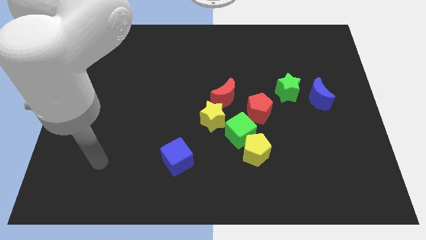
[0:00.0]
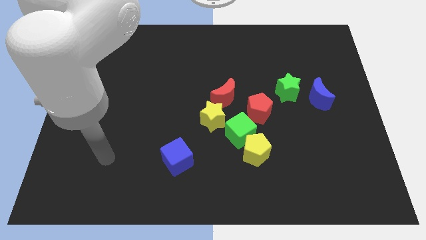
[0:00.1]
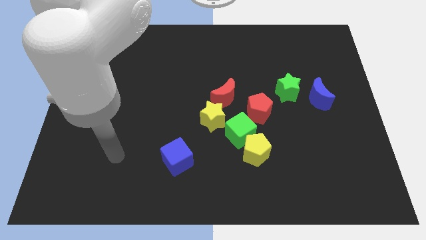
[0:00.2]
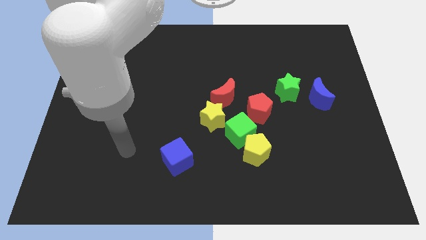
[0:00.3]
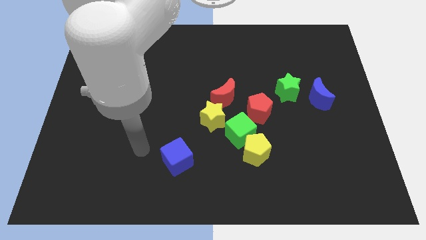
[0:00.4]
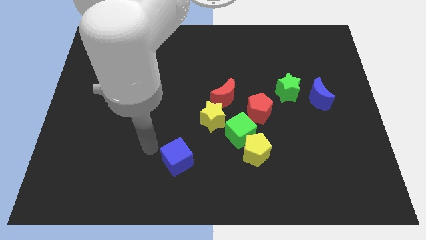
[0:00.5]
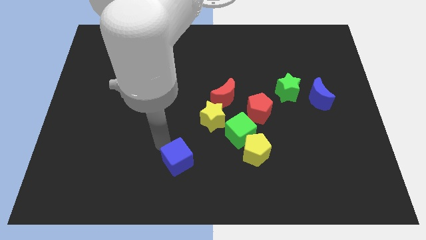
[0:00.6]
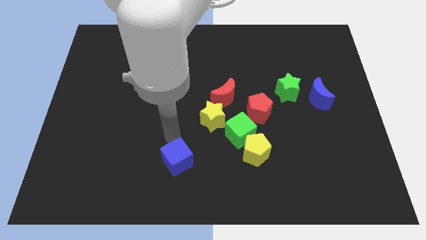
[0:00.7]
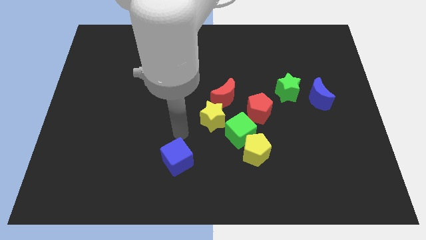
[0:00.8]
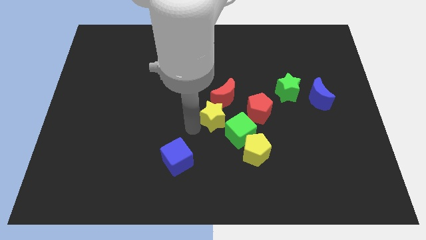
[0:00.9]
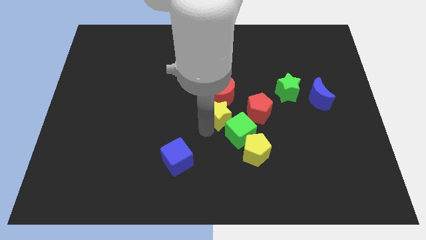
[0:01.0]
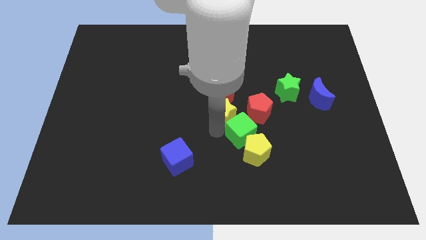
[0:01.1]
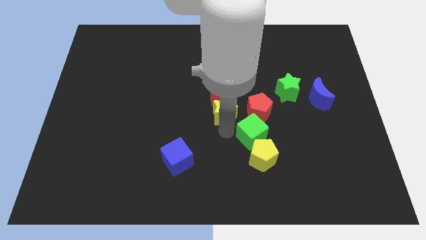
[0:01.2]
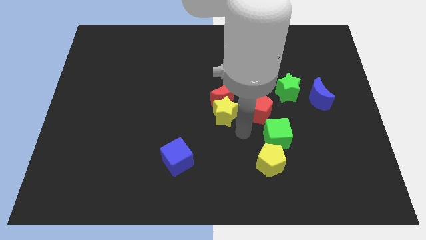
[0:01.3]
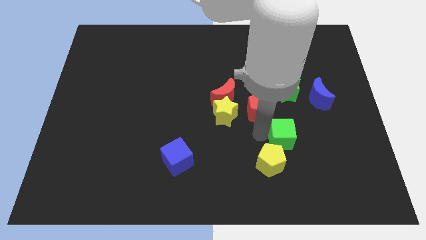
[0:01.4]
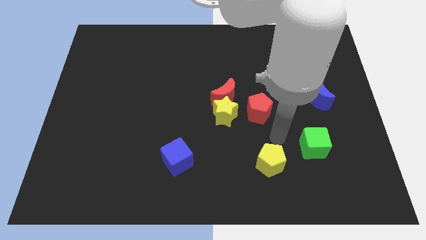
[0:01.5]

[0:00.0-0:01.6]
separate the yellow pentagon from the green cube

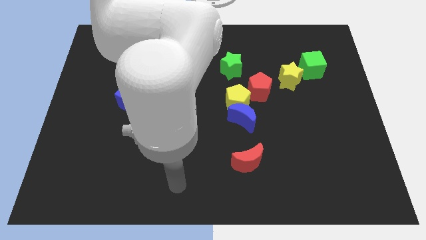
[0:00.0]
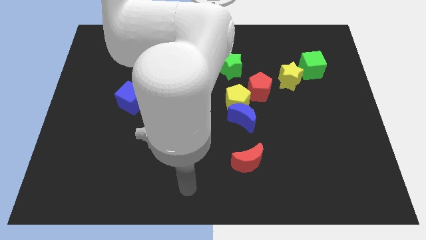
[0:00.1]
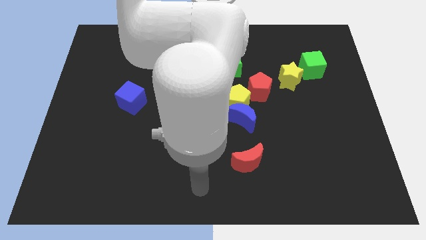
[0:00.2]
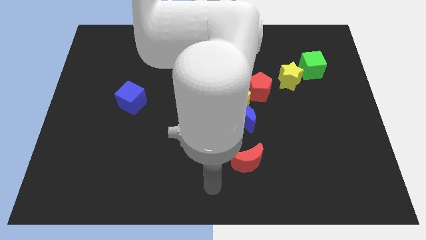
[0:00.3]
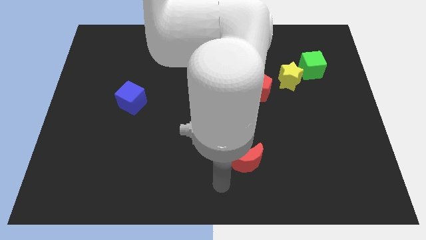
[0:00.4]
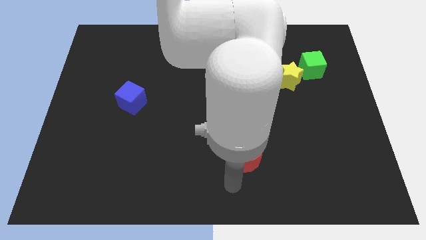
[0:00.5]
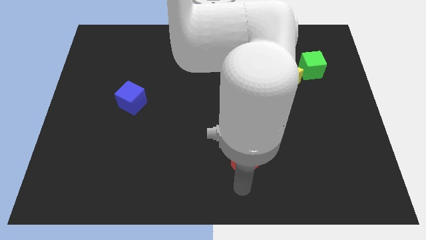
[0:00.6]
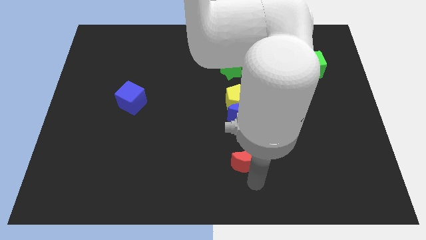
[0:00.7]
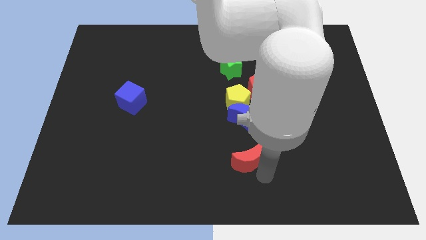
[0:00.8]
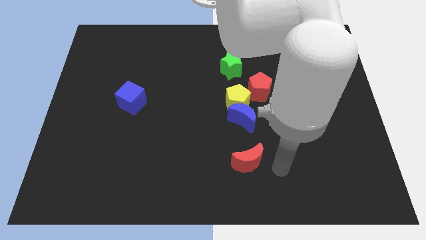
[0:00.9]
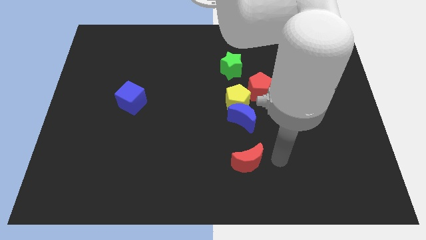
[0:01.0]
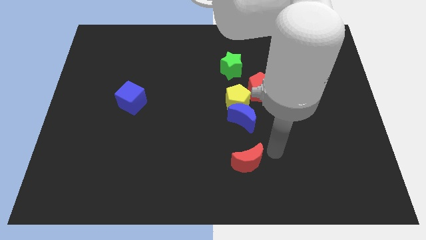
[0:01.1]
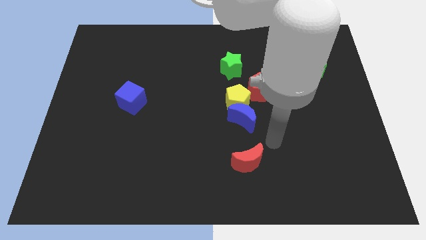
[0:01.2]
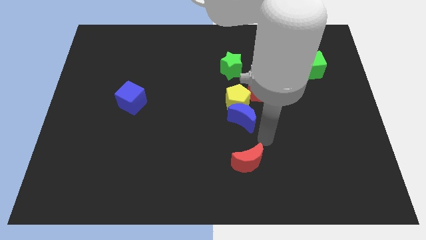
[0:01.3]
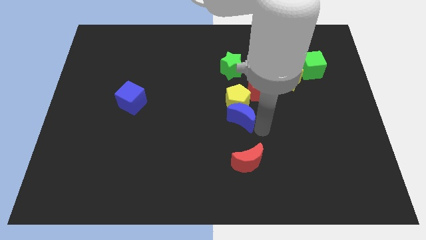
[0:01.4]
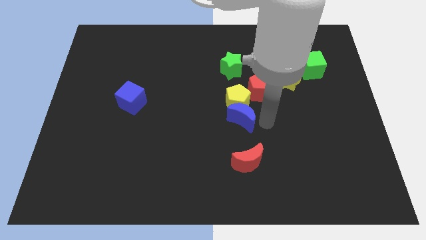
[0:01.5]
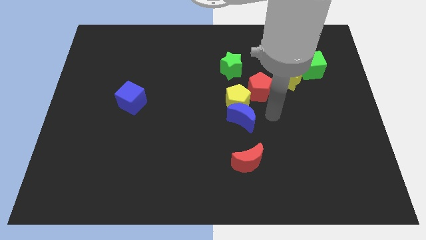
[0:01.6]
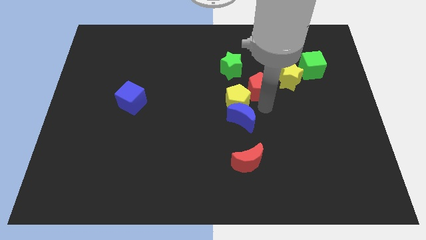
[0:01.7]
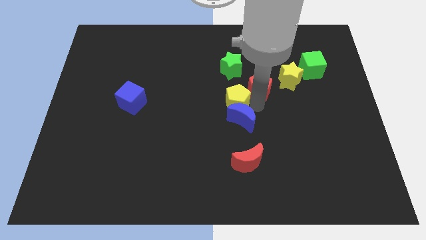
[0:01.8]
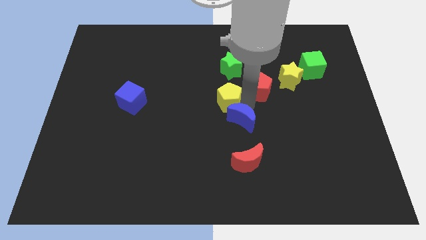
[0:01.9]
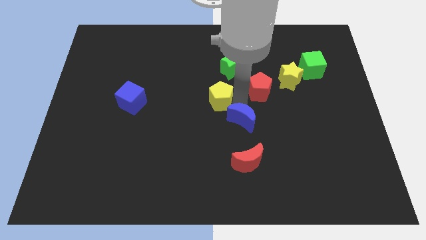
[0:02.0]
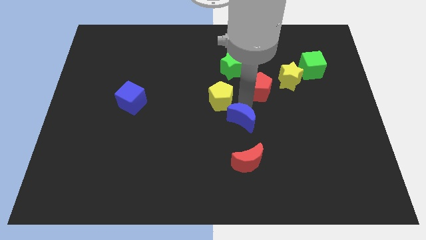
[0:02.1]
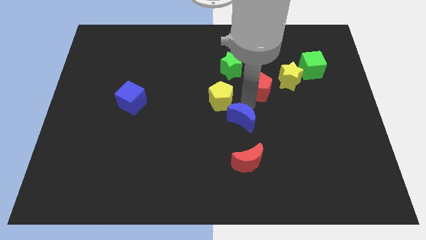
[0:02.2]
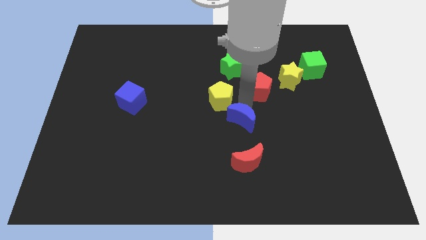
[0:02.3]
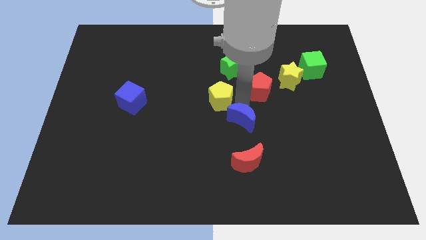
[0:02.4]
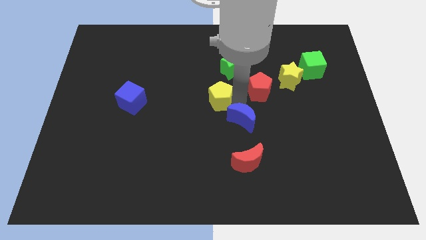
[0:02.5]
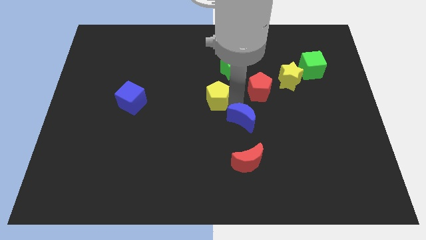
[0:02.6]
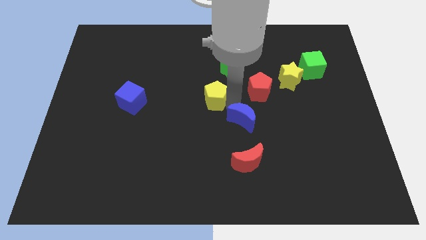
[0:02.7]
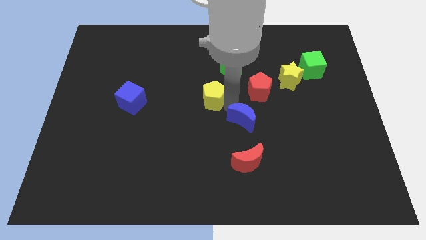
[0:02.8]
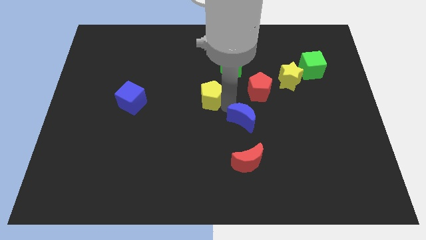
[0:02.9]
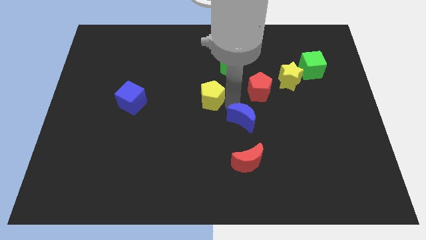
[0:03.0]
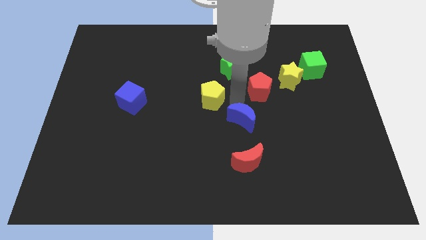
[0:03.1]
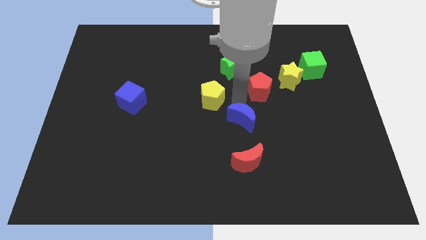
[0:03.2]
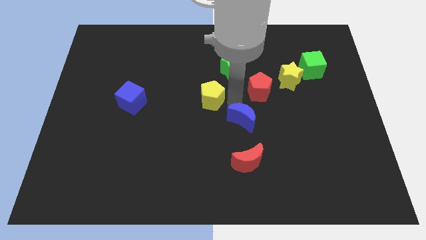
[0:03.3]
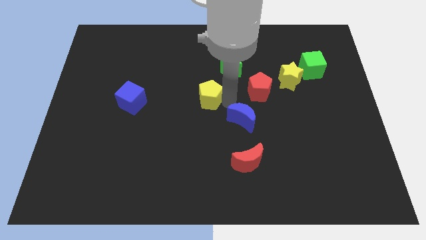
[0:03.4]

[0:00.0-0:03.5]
separate the yellow pentagon from the blue moon and red pentagon

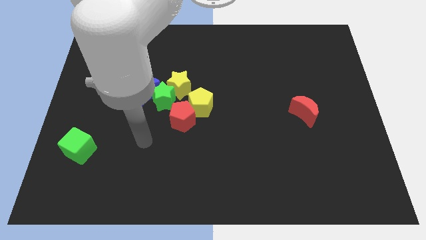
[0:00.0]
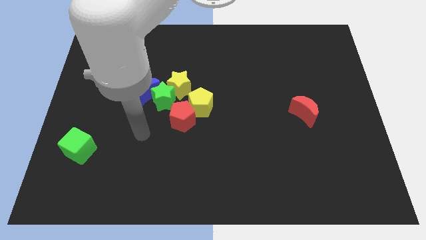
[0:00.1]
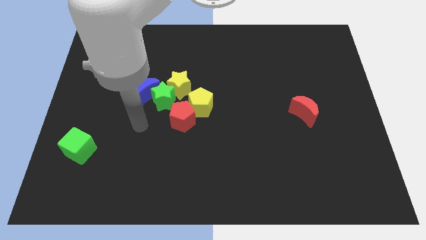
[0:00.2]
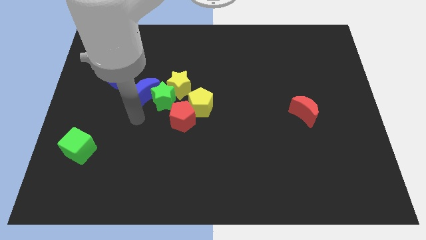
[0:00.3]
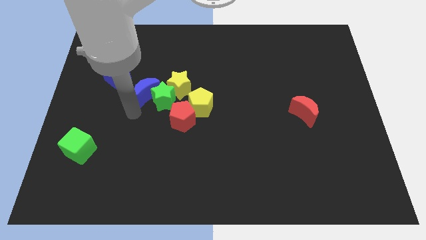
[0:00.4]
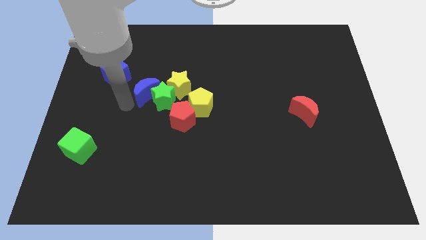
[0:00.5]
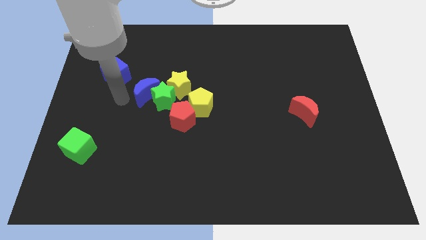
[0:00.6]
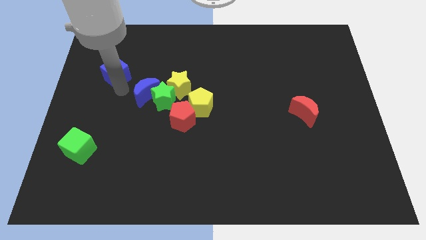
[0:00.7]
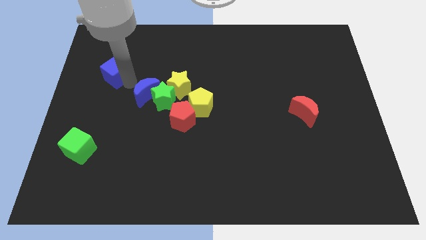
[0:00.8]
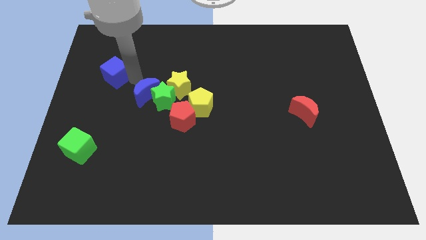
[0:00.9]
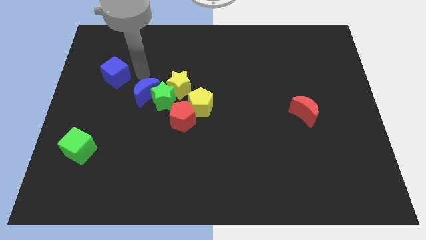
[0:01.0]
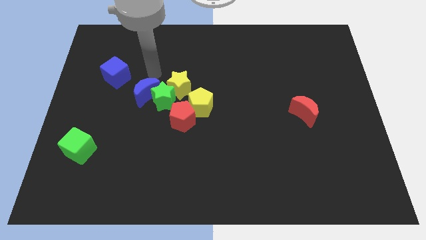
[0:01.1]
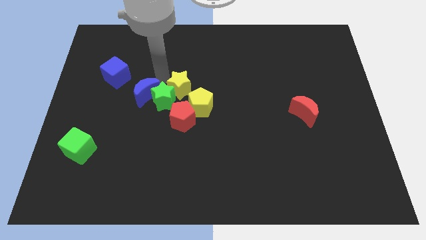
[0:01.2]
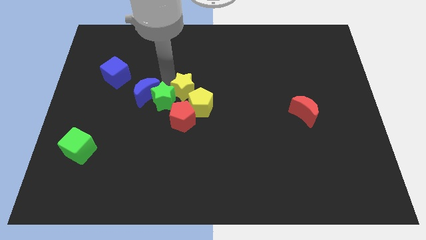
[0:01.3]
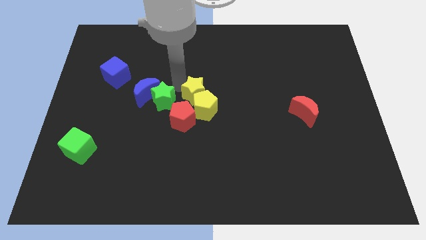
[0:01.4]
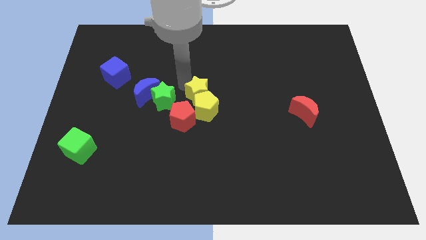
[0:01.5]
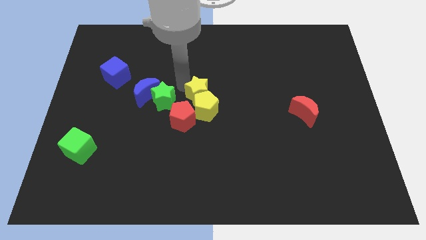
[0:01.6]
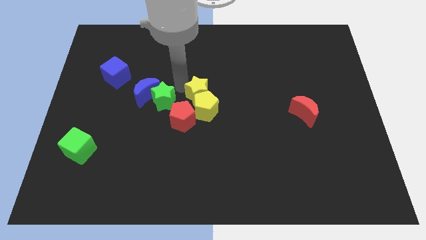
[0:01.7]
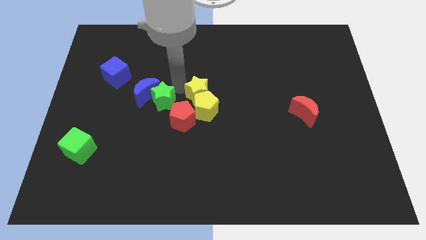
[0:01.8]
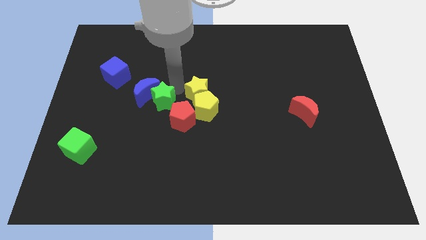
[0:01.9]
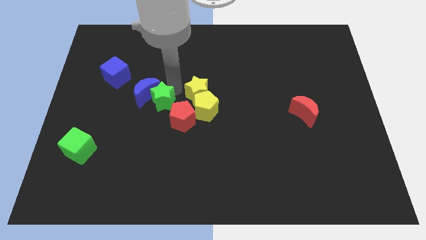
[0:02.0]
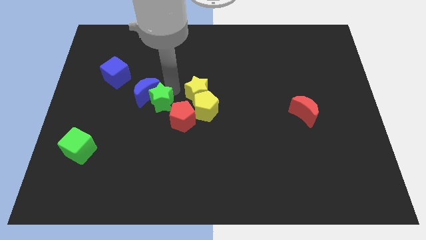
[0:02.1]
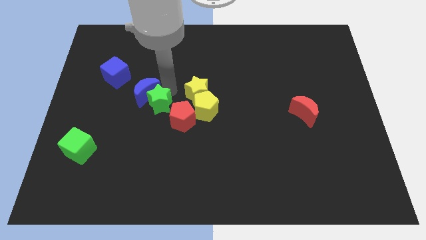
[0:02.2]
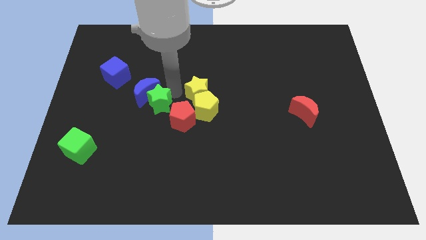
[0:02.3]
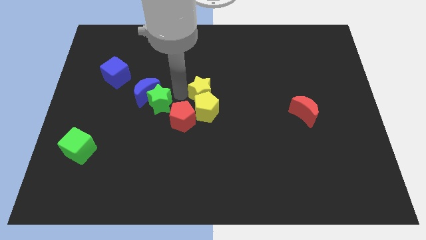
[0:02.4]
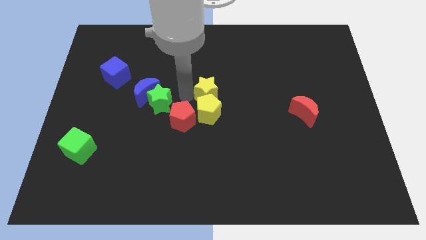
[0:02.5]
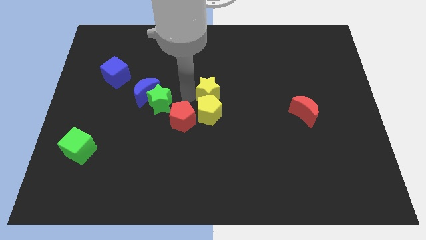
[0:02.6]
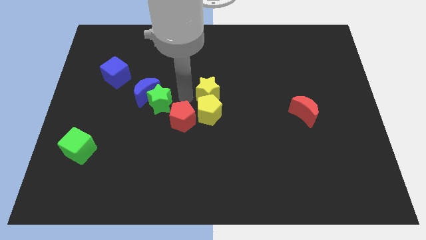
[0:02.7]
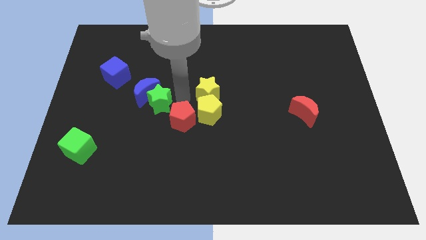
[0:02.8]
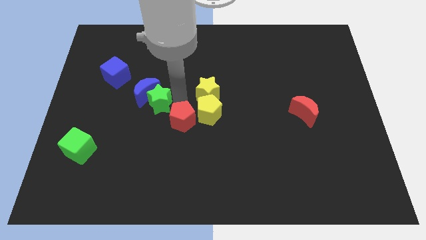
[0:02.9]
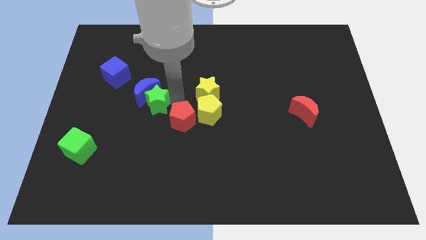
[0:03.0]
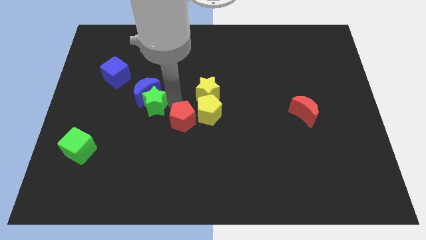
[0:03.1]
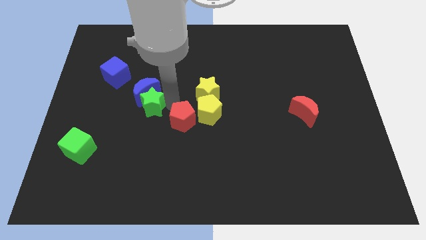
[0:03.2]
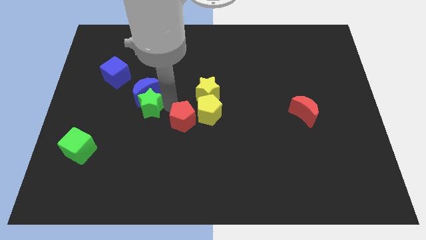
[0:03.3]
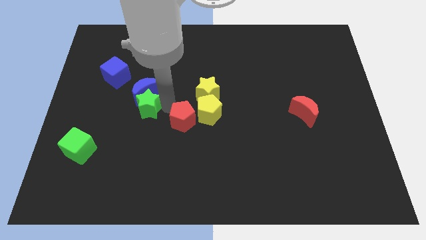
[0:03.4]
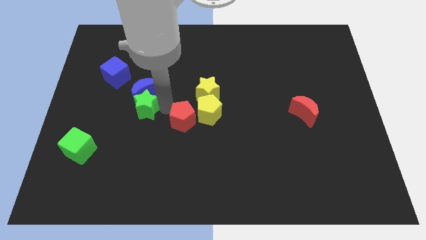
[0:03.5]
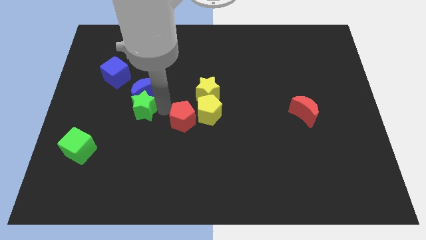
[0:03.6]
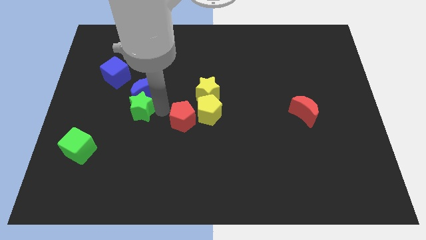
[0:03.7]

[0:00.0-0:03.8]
move the green star away from the group of blocks

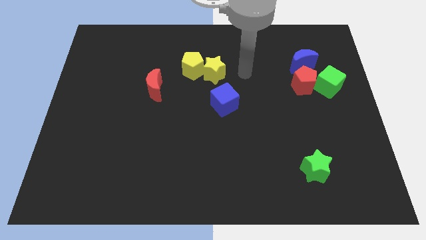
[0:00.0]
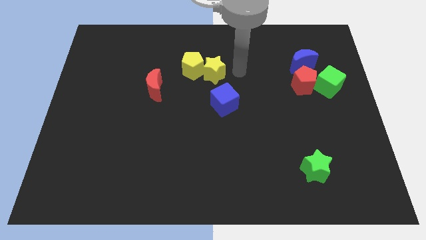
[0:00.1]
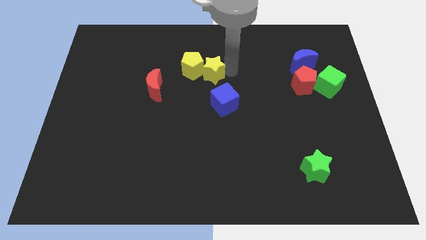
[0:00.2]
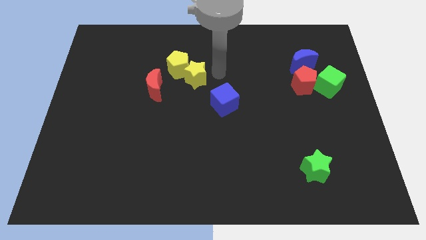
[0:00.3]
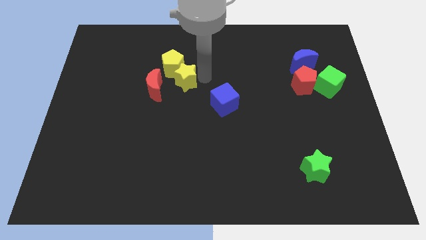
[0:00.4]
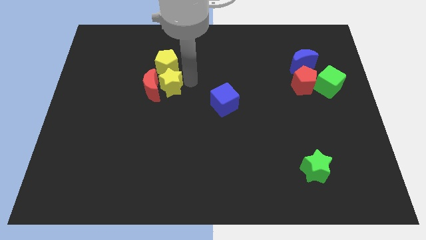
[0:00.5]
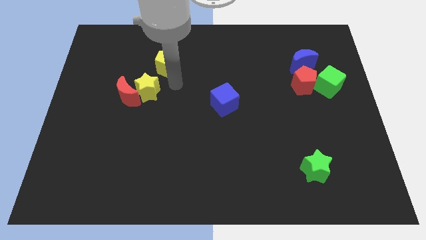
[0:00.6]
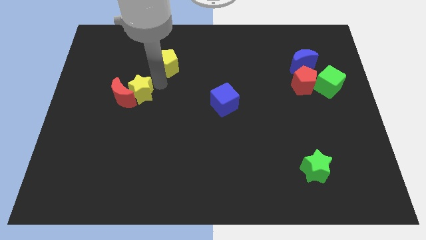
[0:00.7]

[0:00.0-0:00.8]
move the yellow pentagon away from the yellow star
